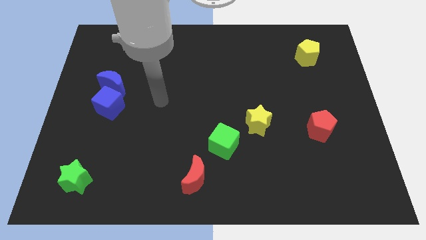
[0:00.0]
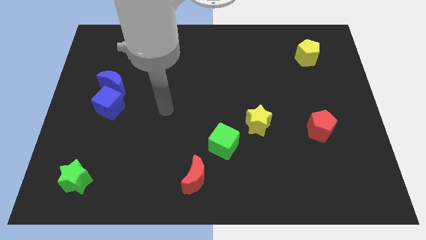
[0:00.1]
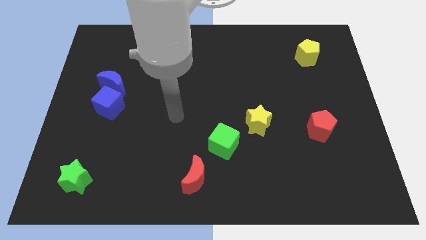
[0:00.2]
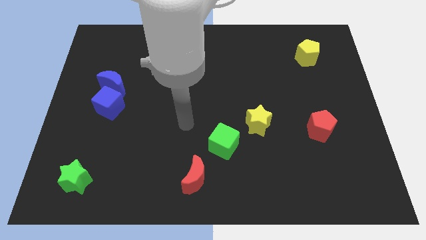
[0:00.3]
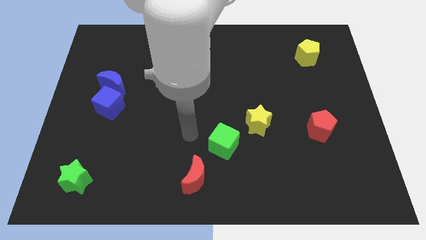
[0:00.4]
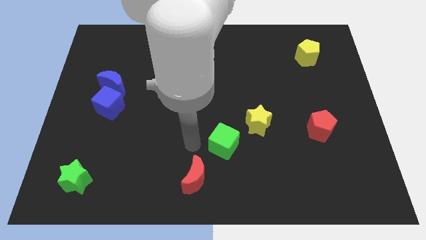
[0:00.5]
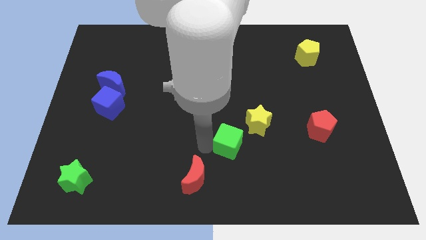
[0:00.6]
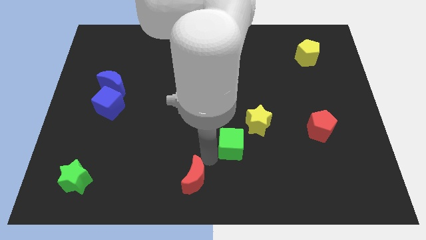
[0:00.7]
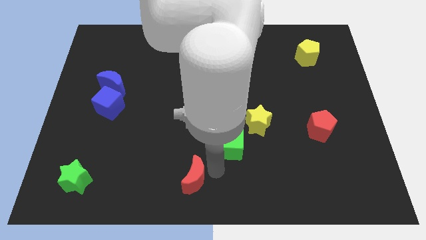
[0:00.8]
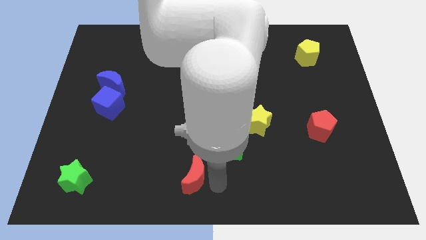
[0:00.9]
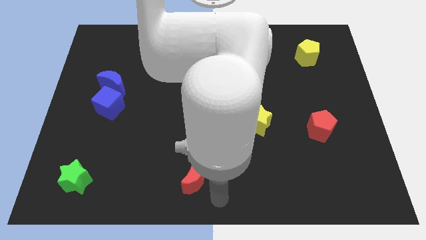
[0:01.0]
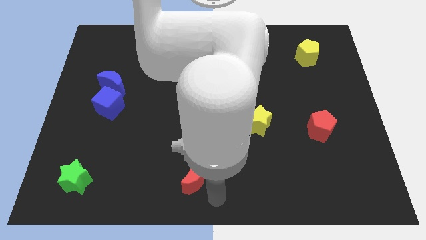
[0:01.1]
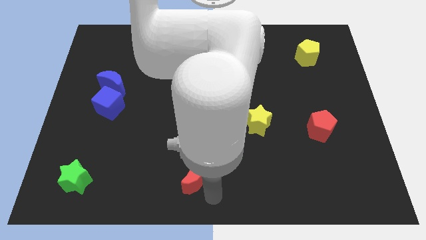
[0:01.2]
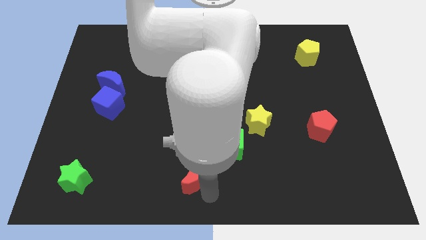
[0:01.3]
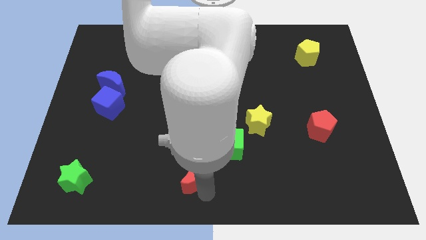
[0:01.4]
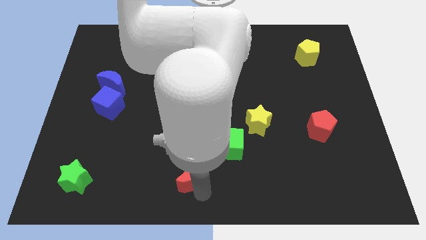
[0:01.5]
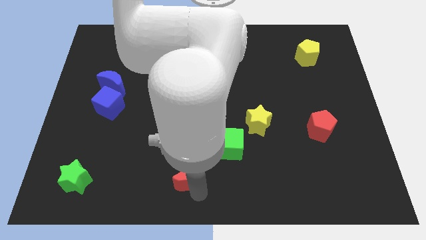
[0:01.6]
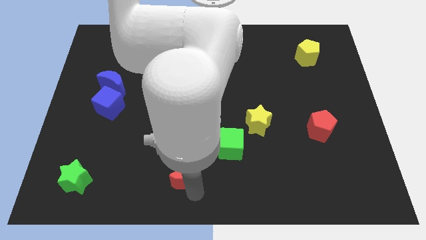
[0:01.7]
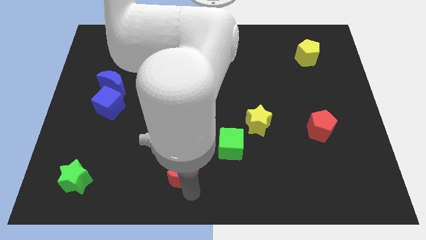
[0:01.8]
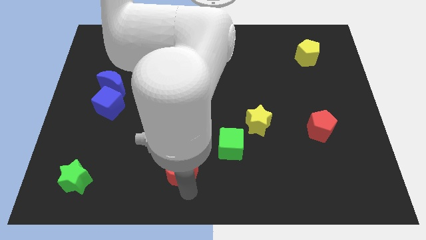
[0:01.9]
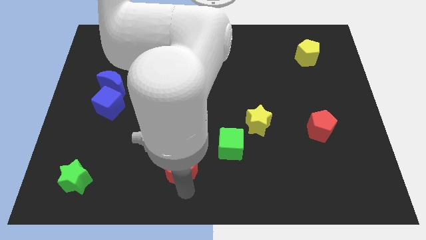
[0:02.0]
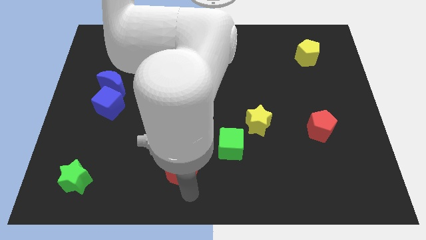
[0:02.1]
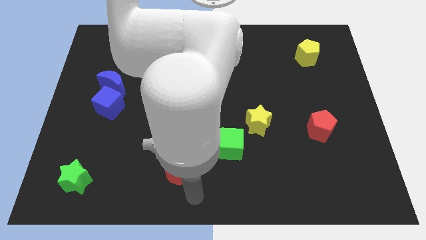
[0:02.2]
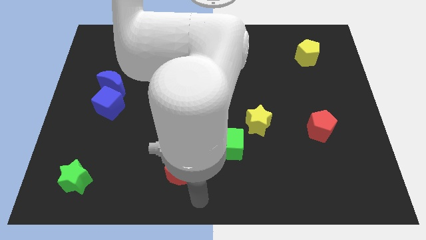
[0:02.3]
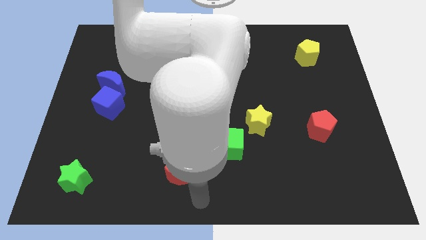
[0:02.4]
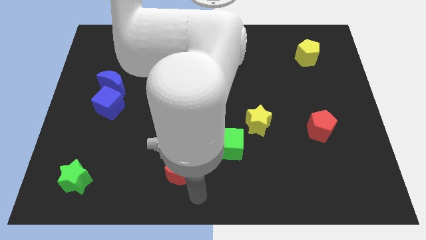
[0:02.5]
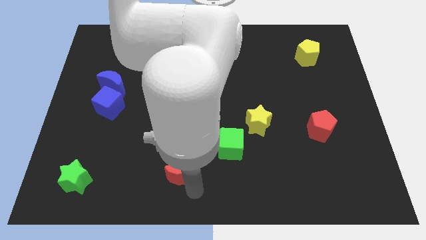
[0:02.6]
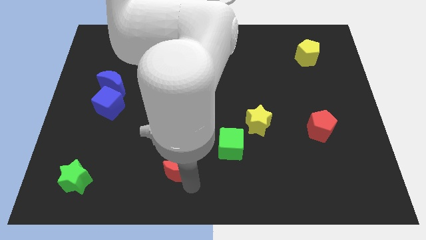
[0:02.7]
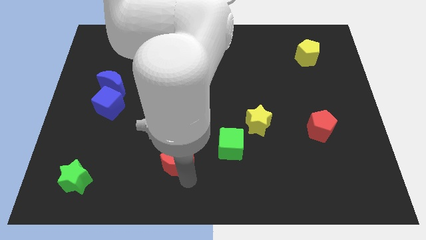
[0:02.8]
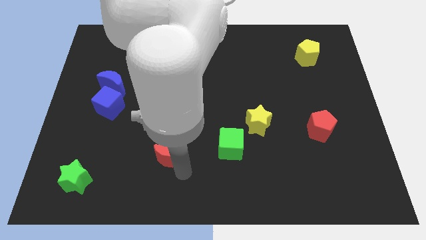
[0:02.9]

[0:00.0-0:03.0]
move the red moon up and left diagonally a bit

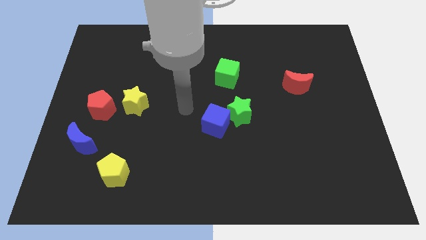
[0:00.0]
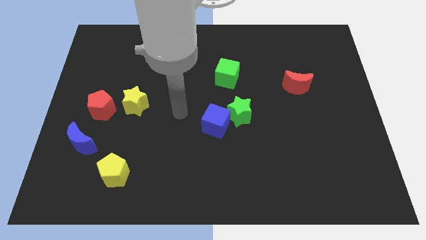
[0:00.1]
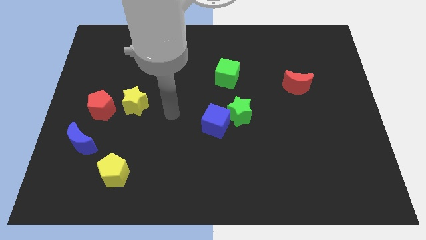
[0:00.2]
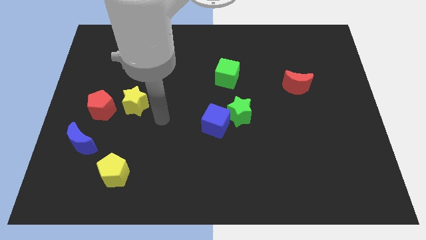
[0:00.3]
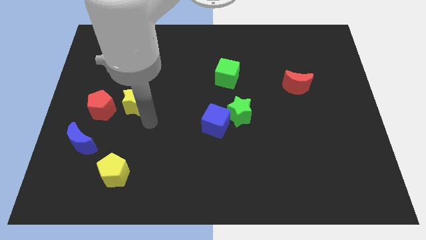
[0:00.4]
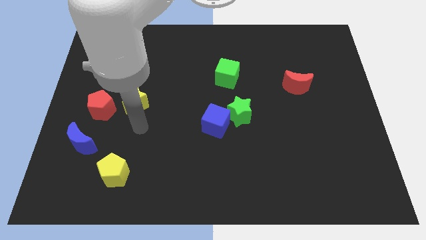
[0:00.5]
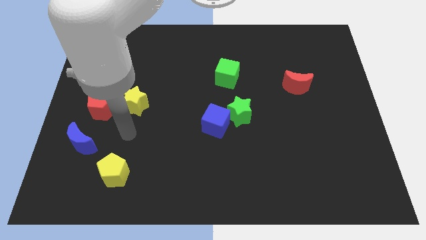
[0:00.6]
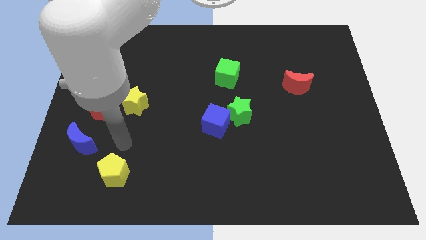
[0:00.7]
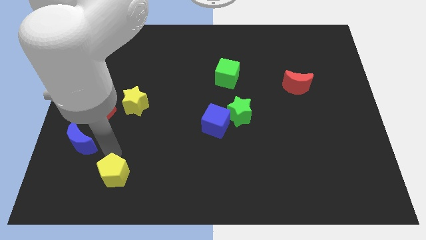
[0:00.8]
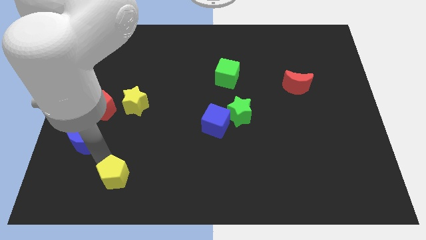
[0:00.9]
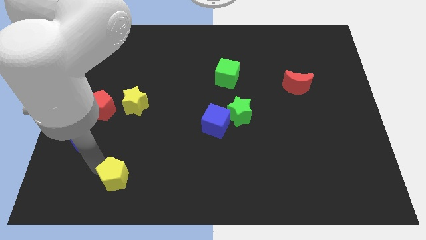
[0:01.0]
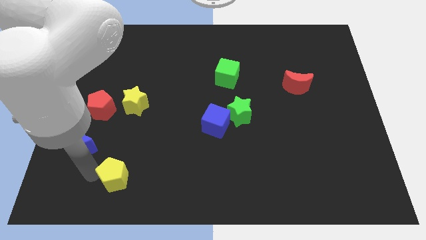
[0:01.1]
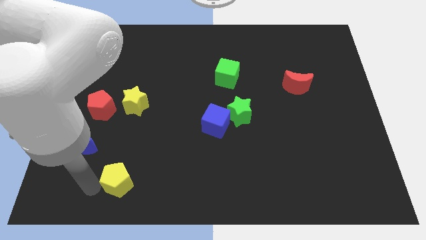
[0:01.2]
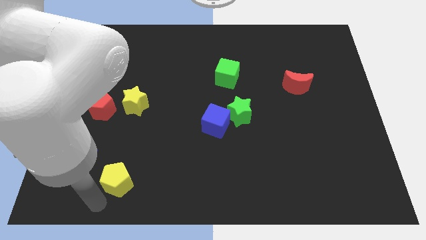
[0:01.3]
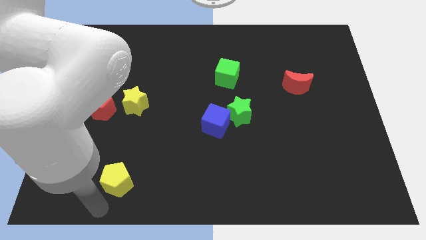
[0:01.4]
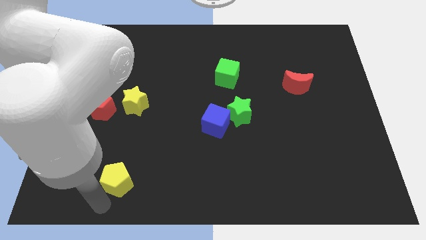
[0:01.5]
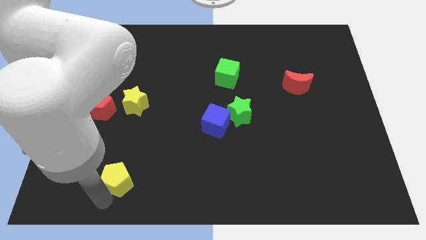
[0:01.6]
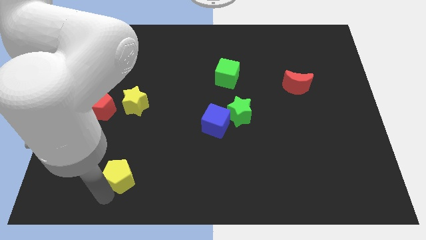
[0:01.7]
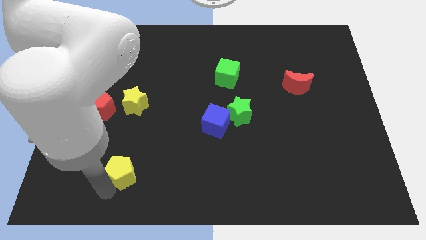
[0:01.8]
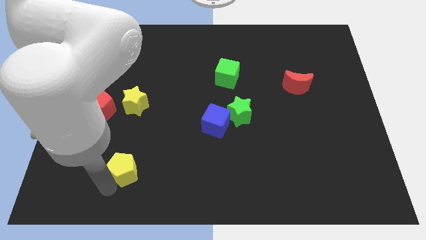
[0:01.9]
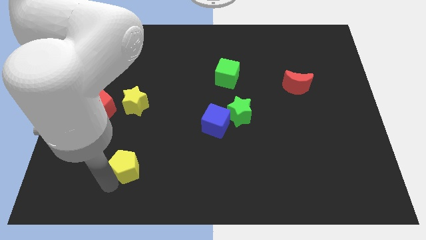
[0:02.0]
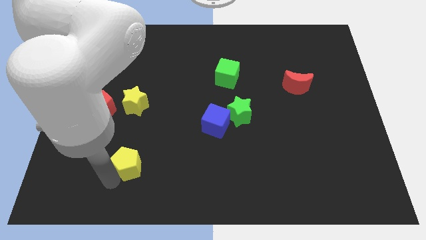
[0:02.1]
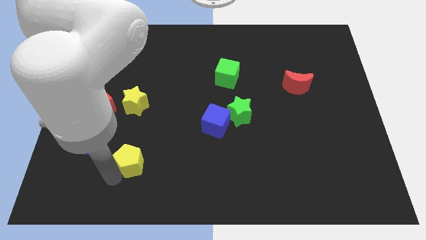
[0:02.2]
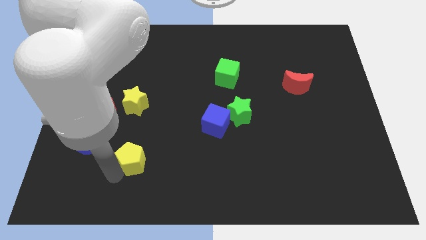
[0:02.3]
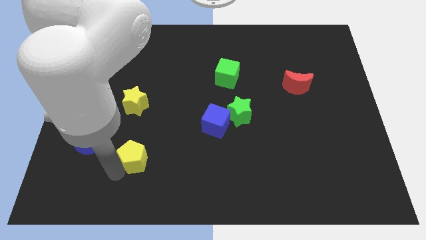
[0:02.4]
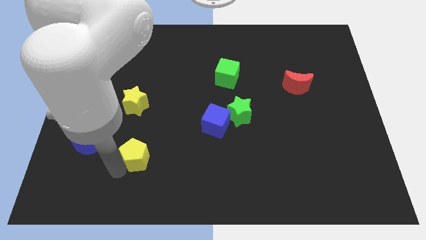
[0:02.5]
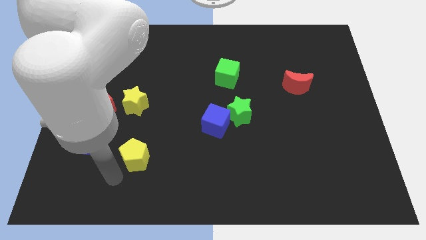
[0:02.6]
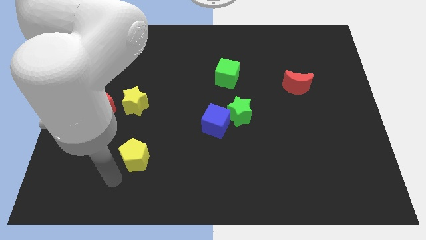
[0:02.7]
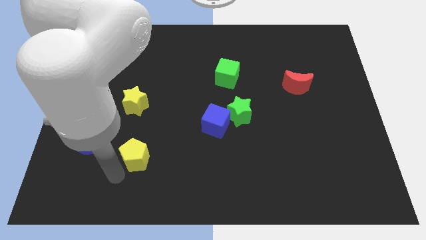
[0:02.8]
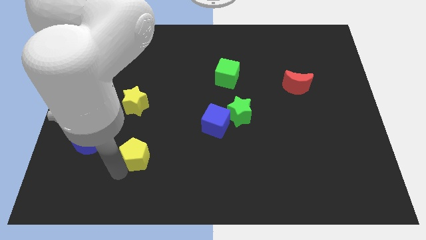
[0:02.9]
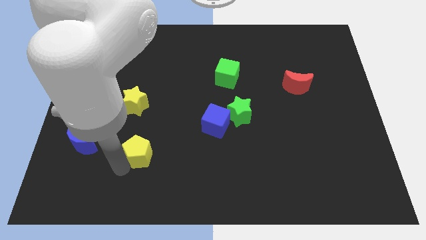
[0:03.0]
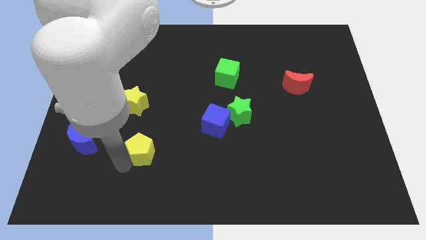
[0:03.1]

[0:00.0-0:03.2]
slightly push the yellow pentagon upwards and right diagonally

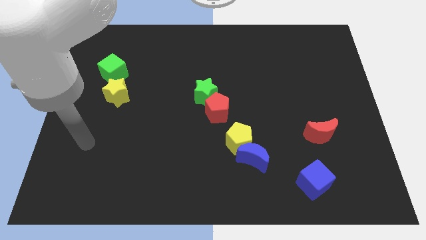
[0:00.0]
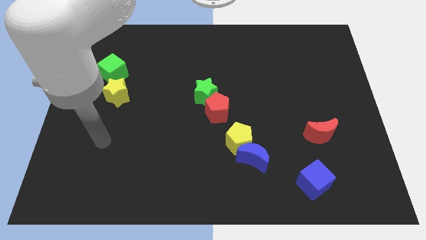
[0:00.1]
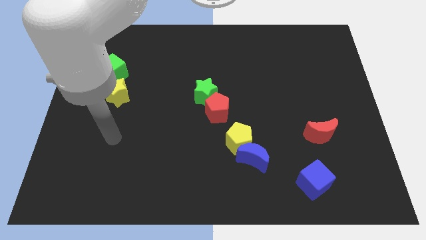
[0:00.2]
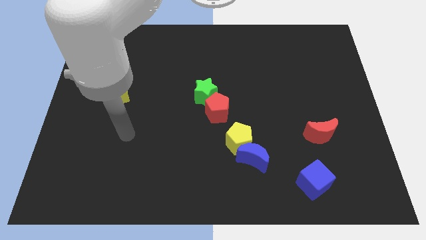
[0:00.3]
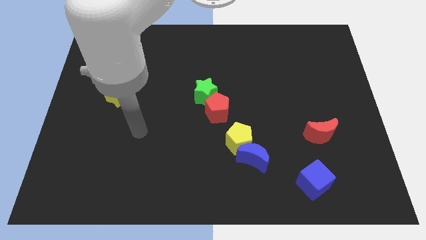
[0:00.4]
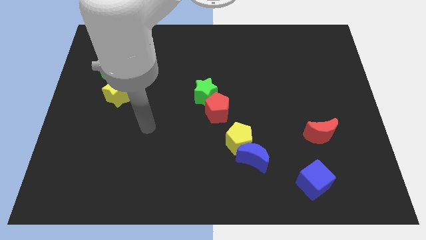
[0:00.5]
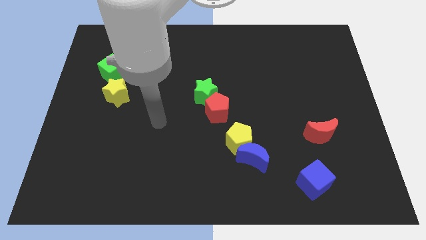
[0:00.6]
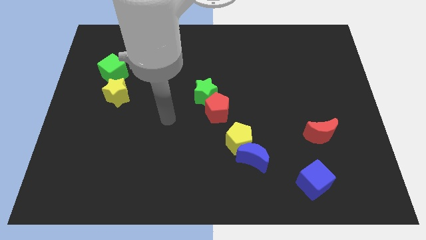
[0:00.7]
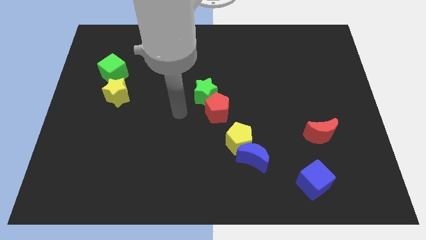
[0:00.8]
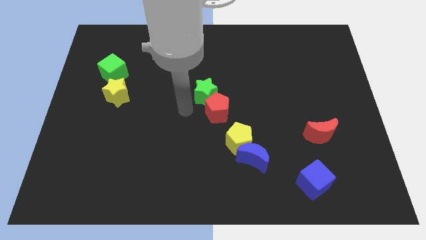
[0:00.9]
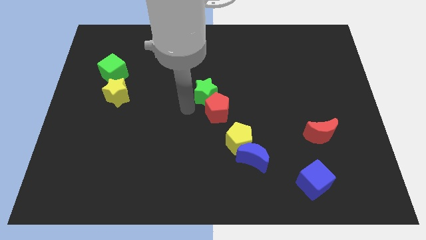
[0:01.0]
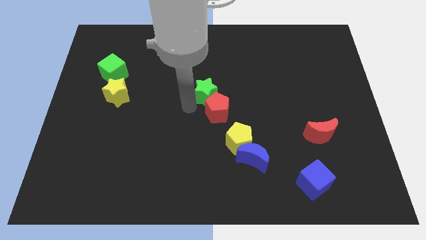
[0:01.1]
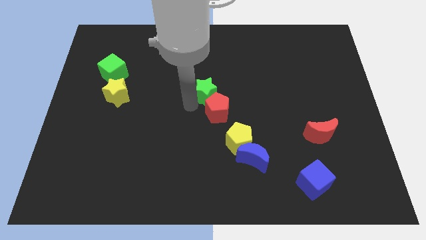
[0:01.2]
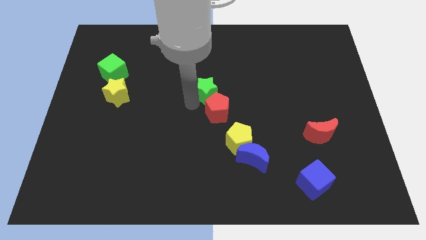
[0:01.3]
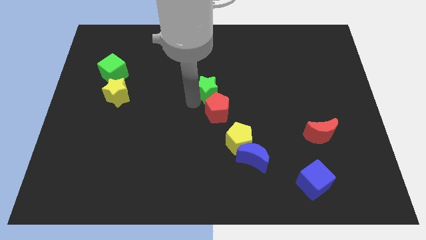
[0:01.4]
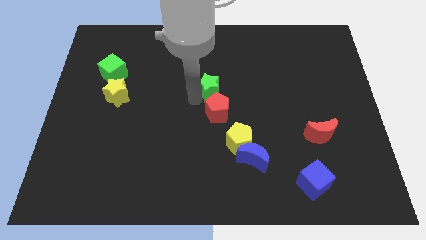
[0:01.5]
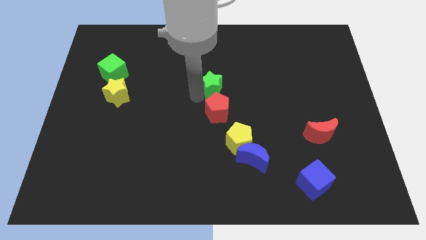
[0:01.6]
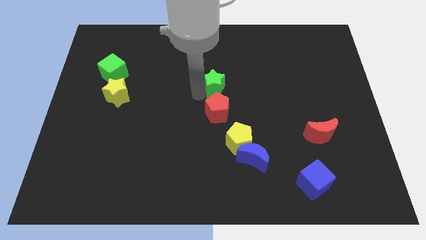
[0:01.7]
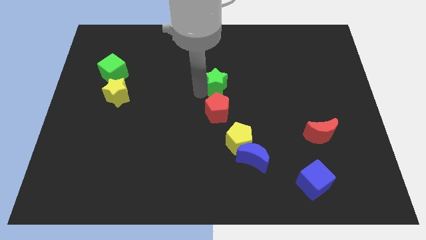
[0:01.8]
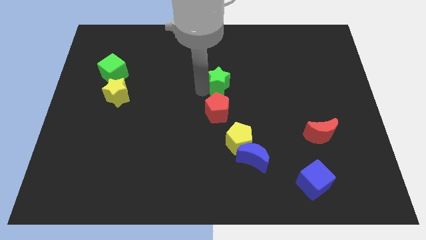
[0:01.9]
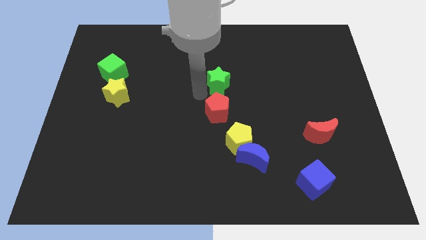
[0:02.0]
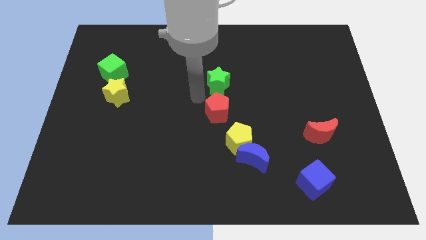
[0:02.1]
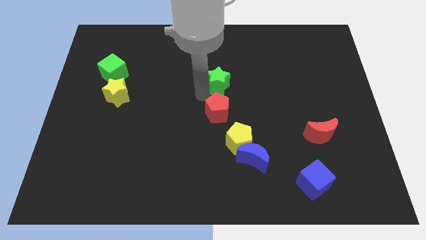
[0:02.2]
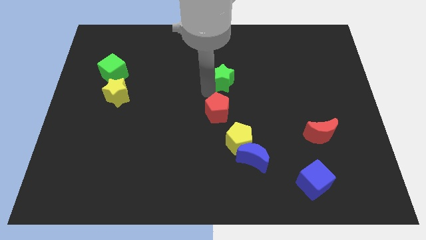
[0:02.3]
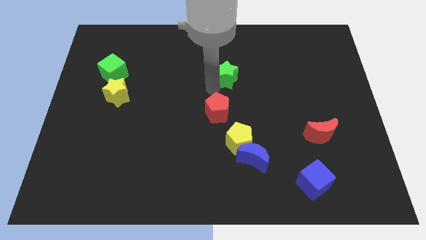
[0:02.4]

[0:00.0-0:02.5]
slightly slide the green star up and then right
